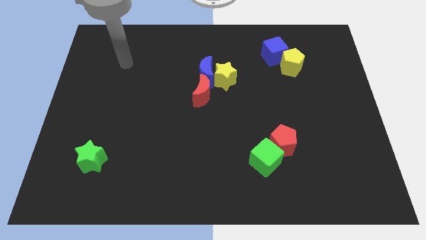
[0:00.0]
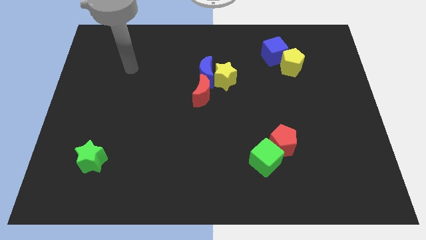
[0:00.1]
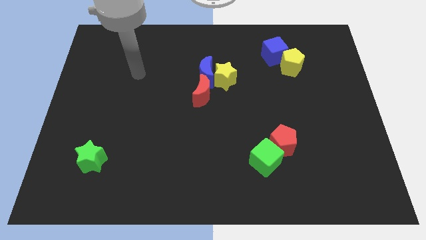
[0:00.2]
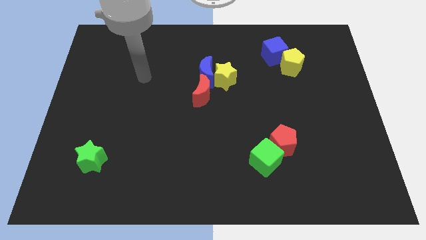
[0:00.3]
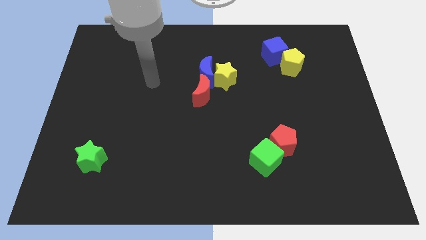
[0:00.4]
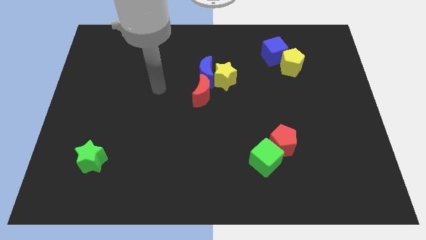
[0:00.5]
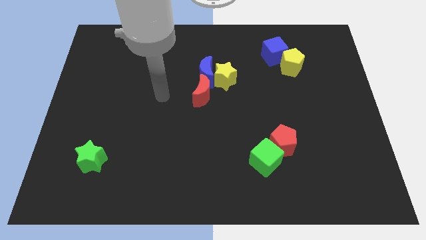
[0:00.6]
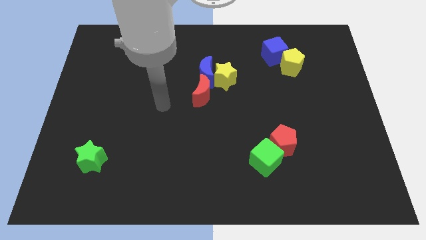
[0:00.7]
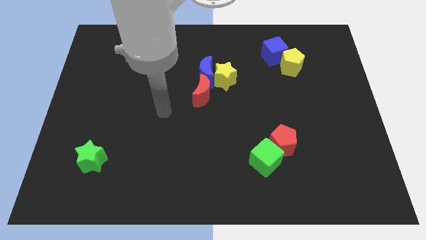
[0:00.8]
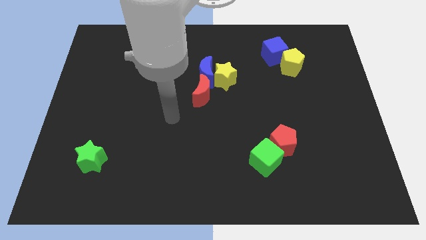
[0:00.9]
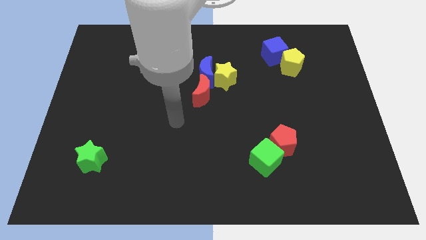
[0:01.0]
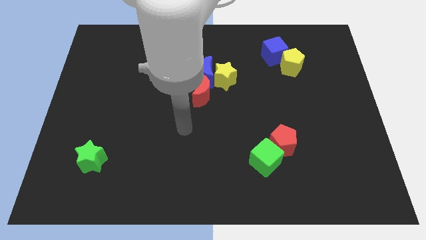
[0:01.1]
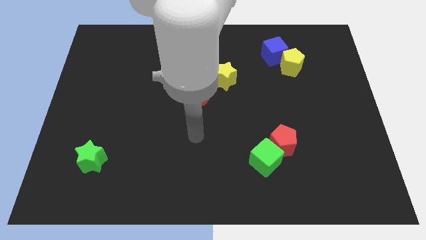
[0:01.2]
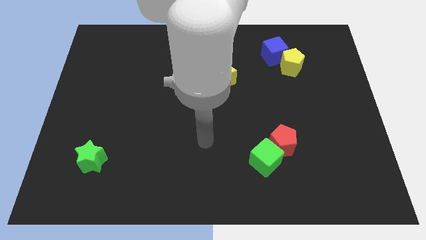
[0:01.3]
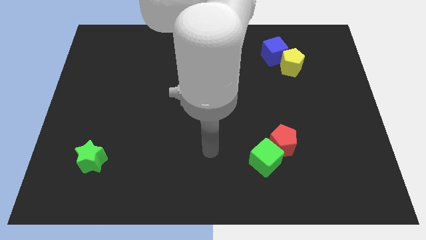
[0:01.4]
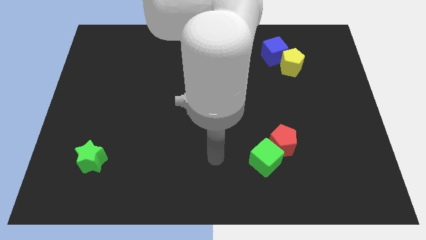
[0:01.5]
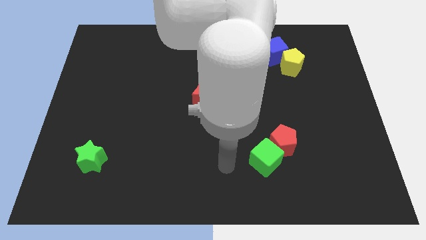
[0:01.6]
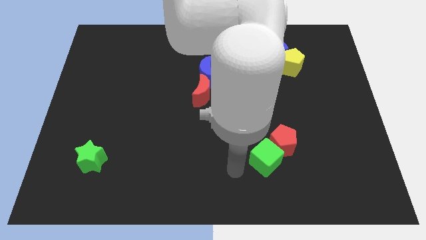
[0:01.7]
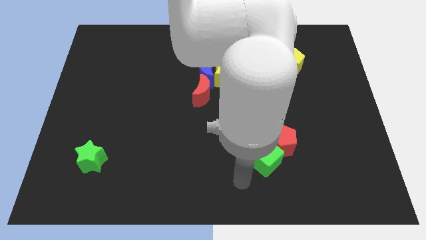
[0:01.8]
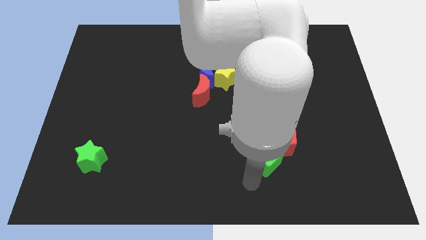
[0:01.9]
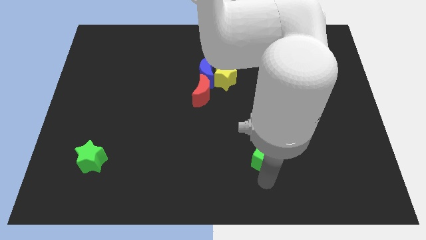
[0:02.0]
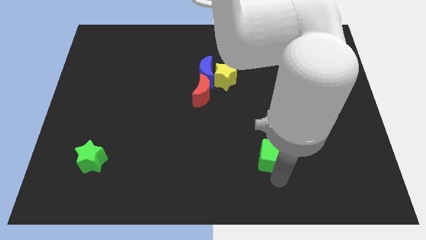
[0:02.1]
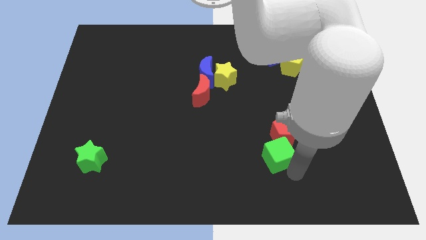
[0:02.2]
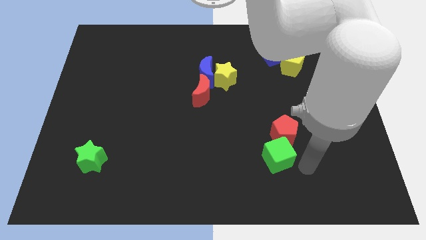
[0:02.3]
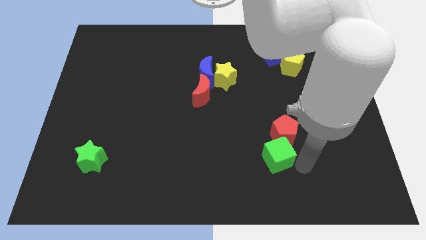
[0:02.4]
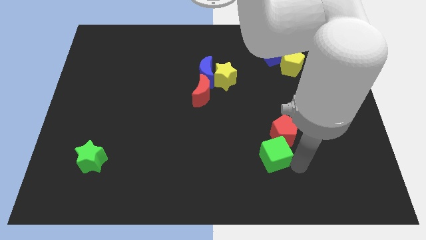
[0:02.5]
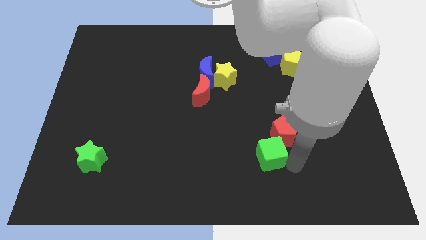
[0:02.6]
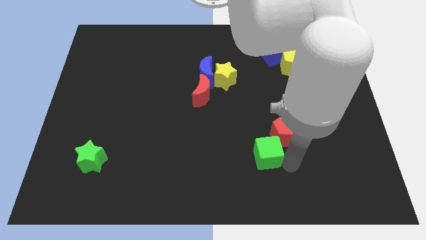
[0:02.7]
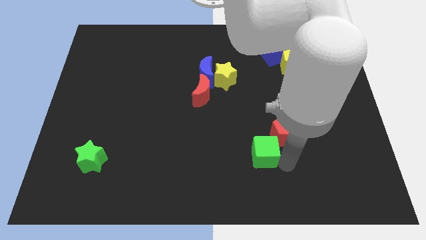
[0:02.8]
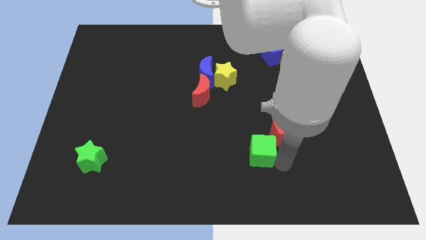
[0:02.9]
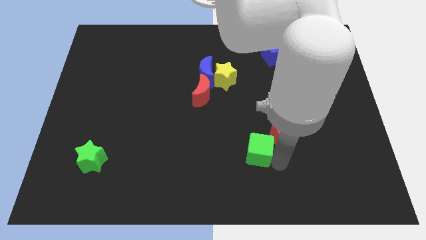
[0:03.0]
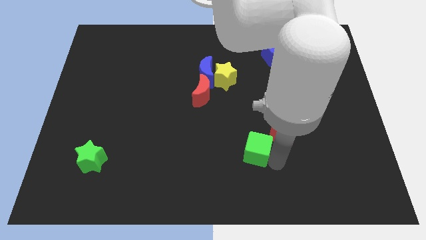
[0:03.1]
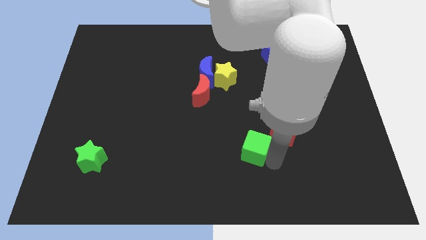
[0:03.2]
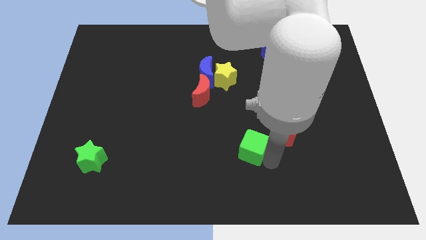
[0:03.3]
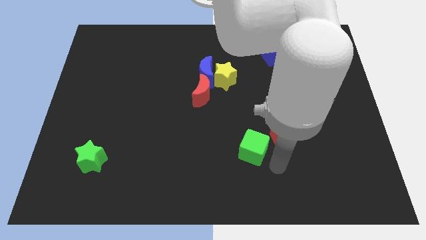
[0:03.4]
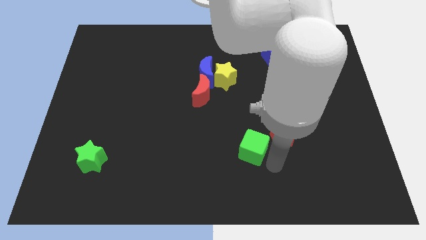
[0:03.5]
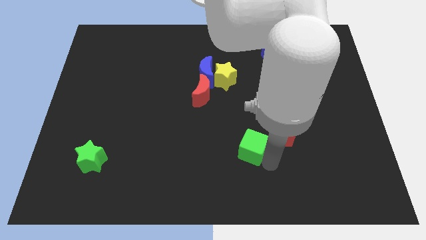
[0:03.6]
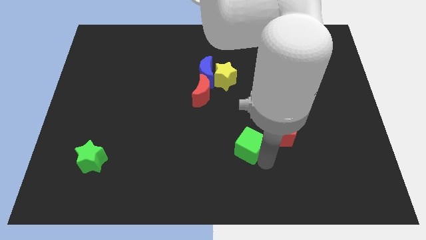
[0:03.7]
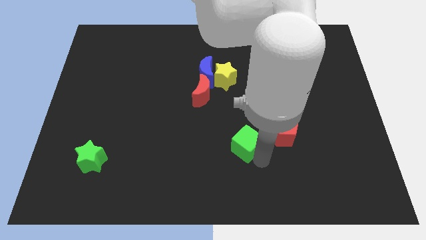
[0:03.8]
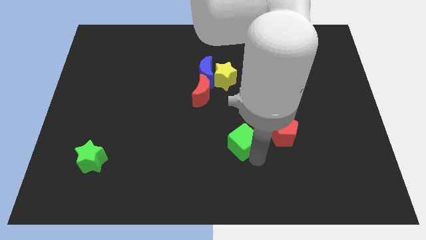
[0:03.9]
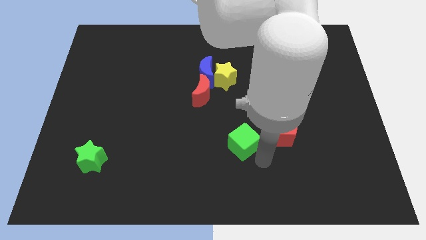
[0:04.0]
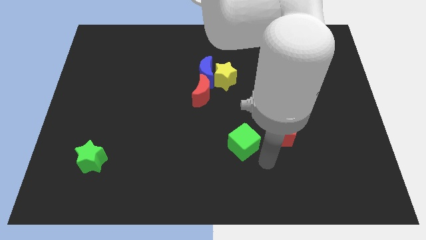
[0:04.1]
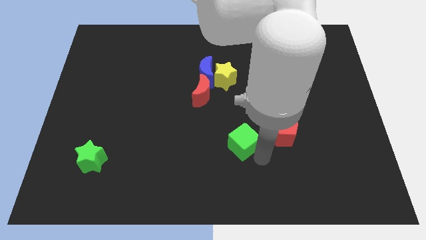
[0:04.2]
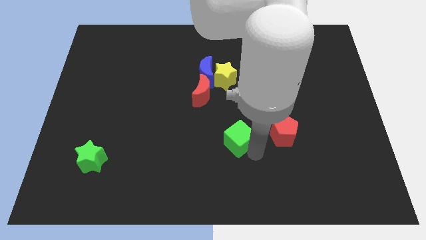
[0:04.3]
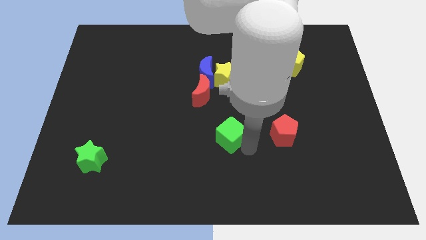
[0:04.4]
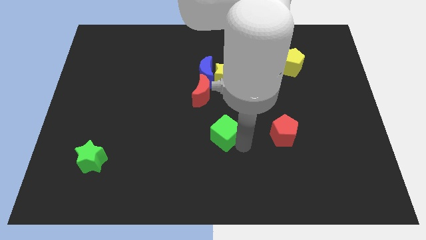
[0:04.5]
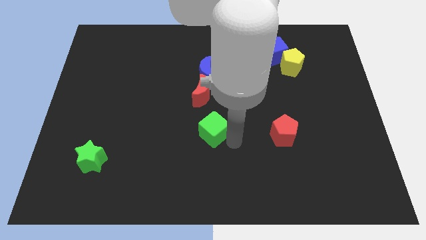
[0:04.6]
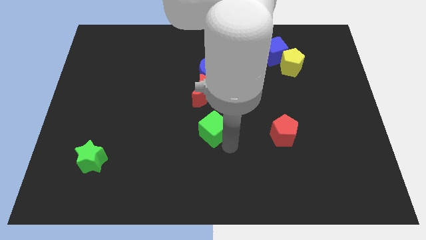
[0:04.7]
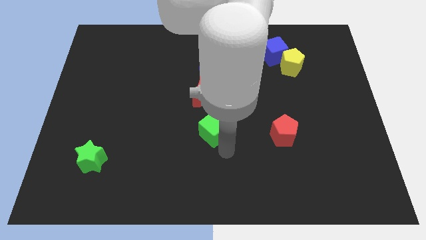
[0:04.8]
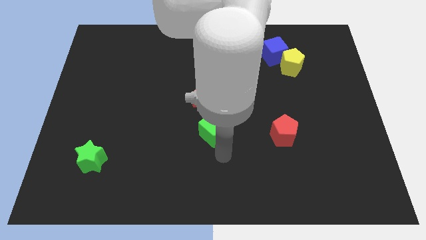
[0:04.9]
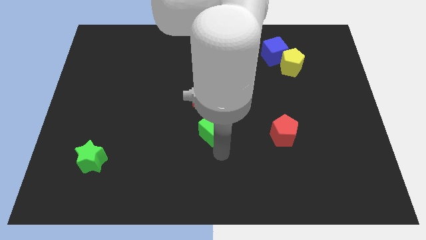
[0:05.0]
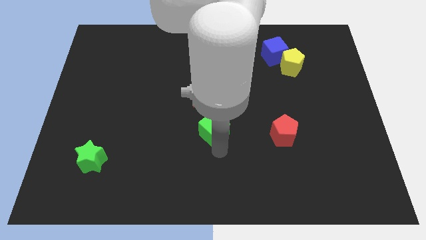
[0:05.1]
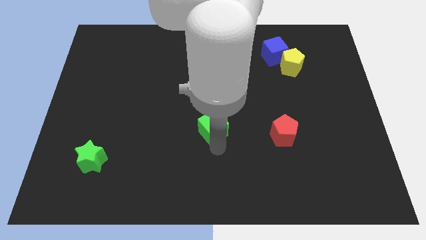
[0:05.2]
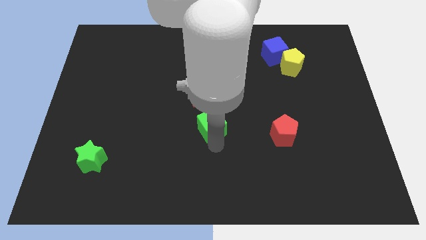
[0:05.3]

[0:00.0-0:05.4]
slide the green cube to the bottom of the blue moon

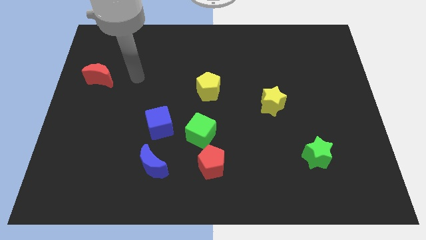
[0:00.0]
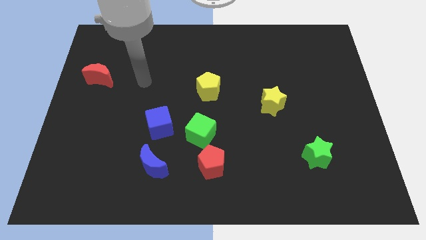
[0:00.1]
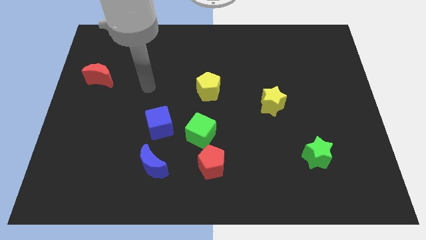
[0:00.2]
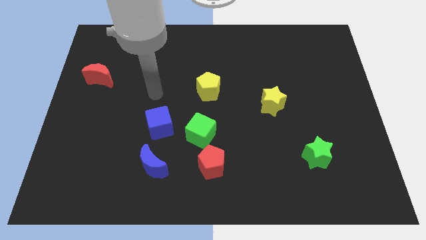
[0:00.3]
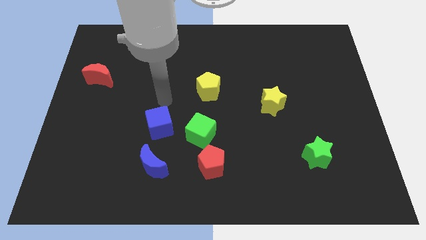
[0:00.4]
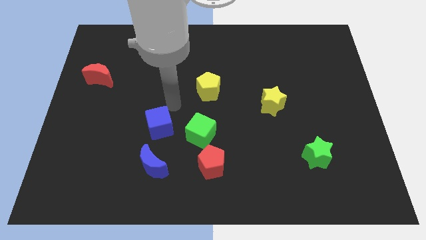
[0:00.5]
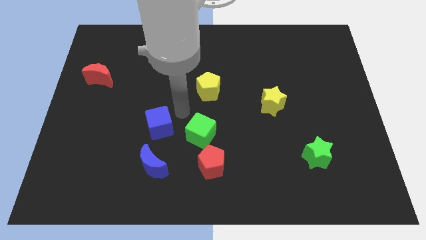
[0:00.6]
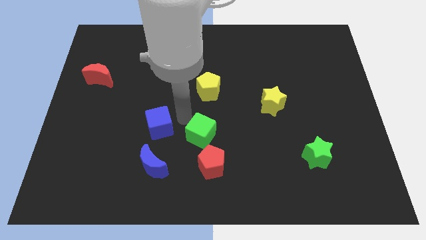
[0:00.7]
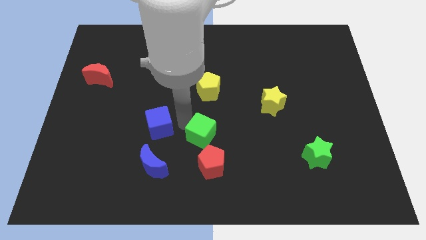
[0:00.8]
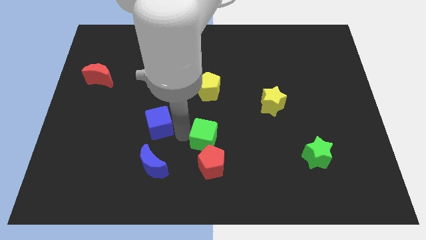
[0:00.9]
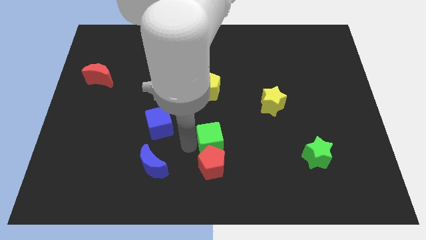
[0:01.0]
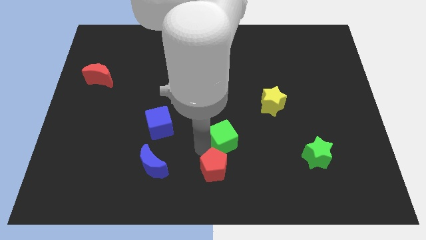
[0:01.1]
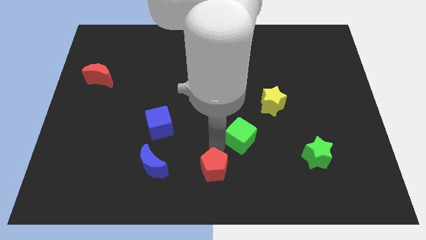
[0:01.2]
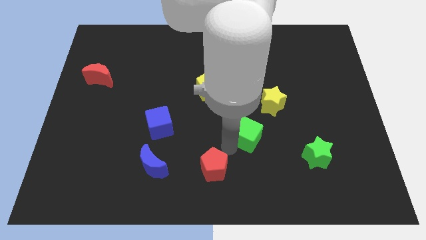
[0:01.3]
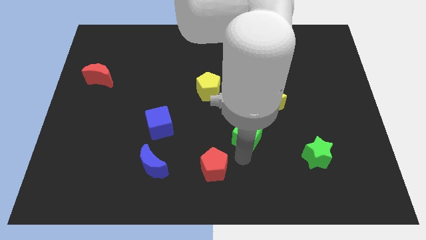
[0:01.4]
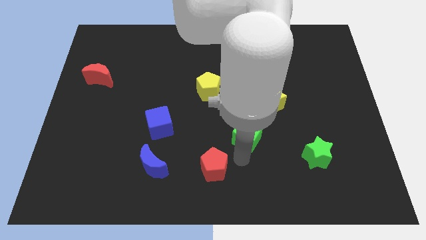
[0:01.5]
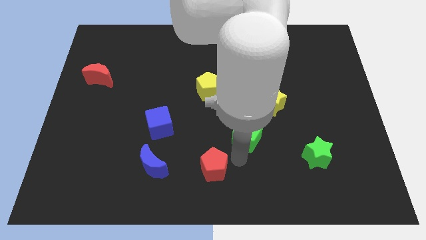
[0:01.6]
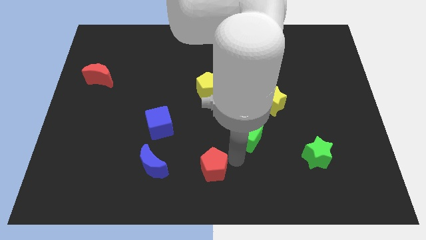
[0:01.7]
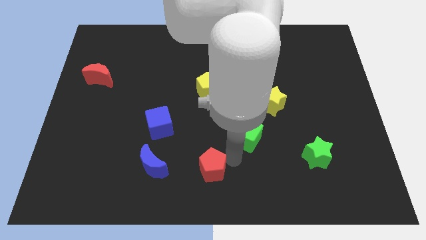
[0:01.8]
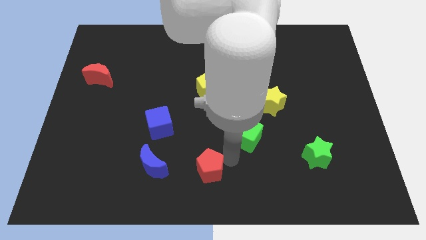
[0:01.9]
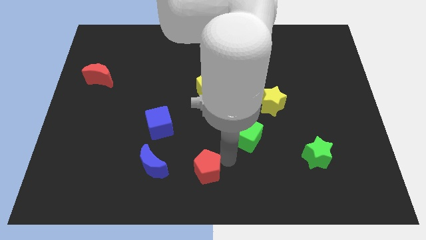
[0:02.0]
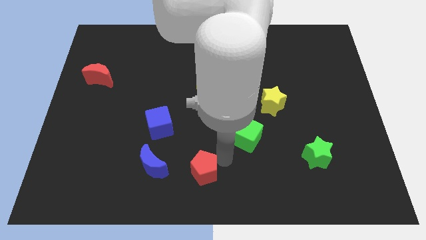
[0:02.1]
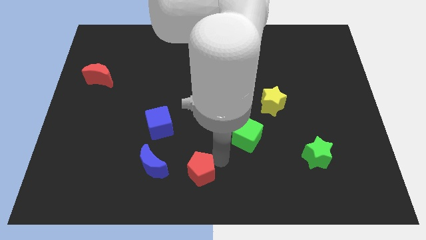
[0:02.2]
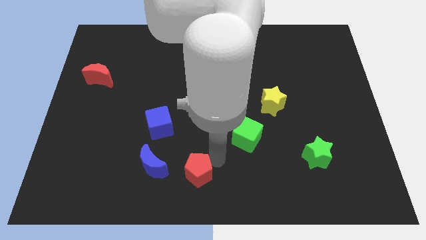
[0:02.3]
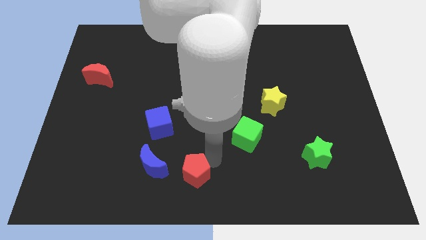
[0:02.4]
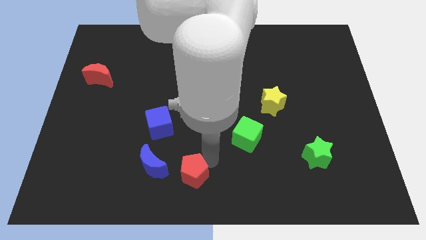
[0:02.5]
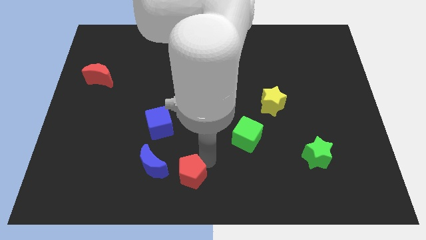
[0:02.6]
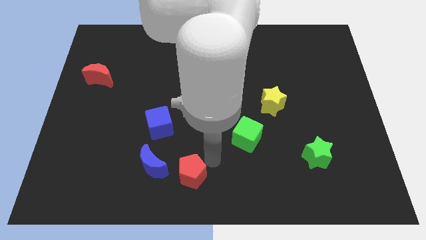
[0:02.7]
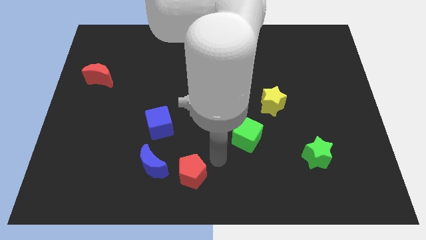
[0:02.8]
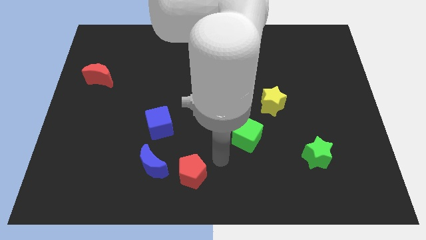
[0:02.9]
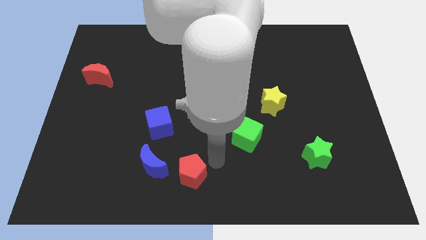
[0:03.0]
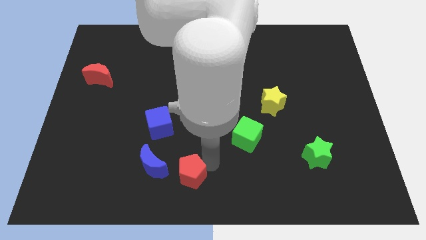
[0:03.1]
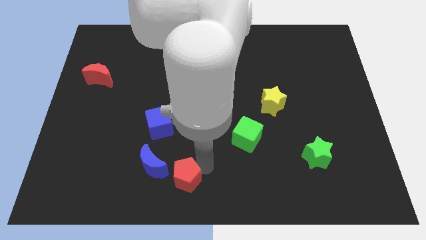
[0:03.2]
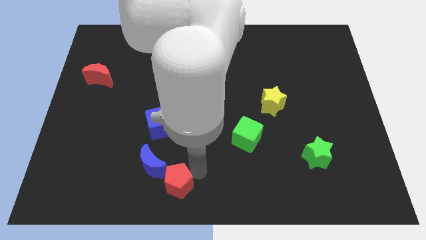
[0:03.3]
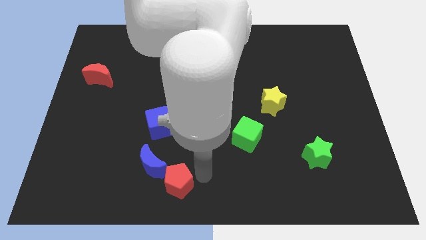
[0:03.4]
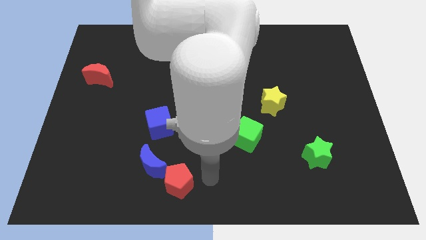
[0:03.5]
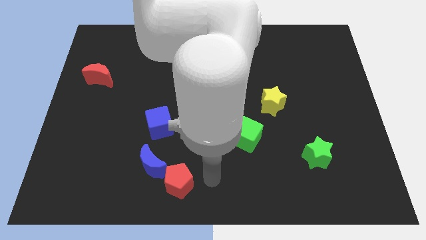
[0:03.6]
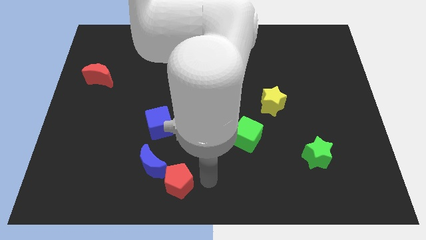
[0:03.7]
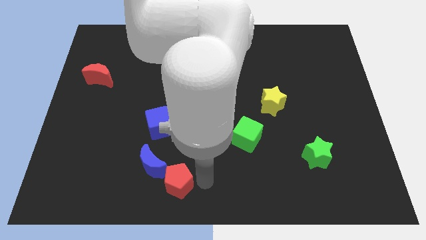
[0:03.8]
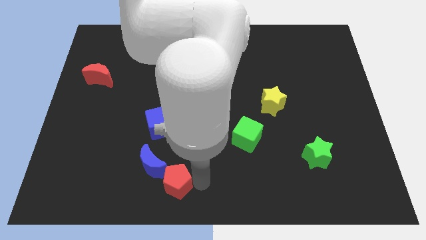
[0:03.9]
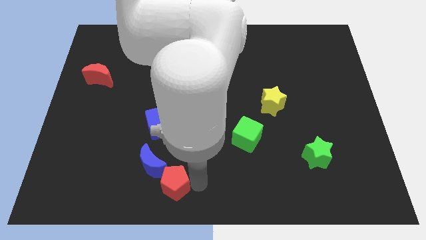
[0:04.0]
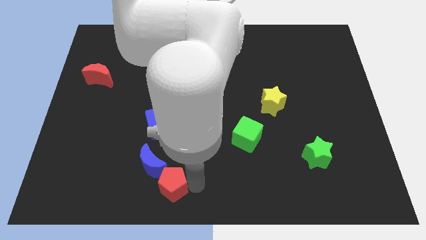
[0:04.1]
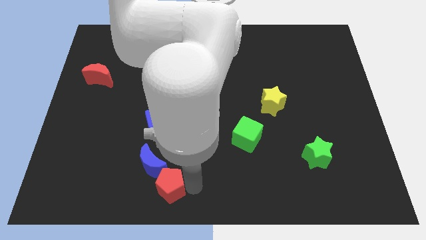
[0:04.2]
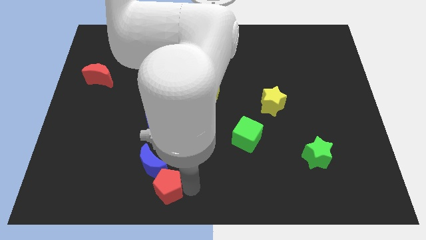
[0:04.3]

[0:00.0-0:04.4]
move the red pentagon below the blue cube
